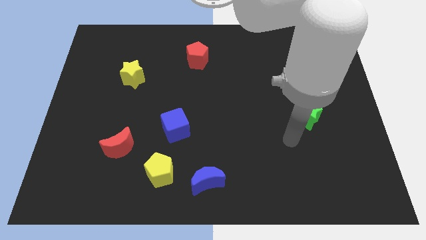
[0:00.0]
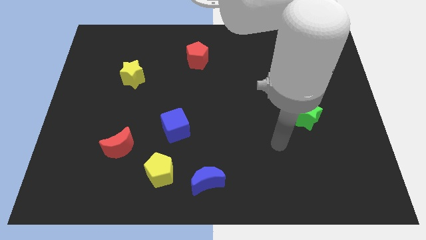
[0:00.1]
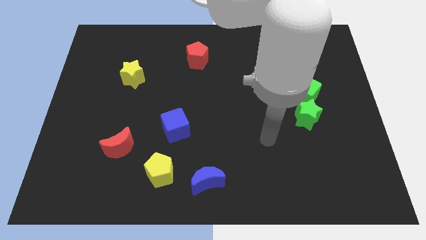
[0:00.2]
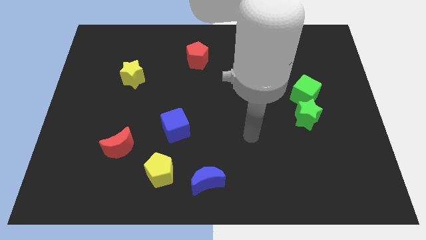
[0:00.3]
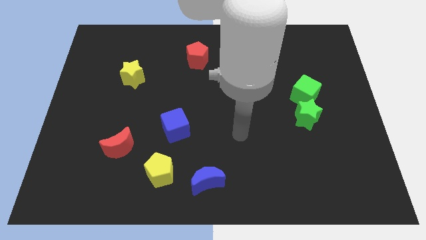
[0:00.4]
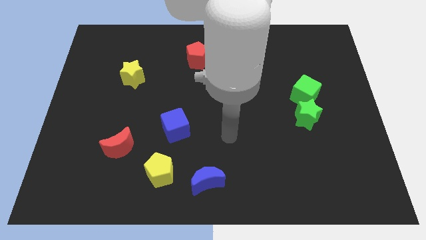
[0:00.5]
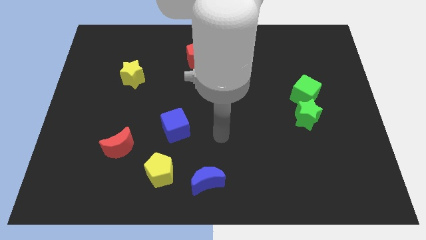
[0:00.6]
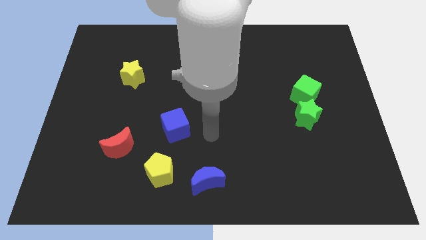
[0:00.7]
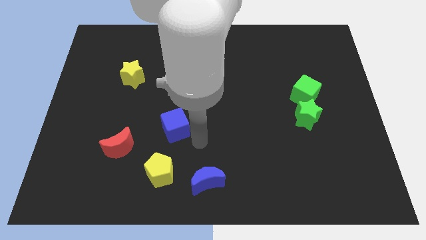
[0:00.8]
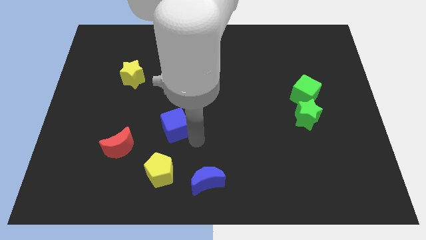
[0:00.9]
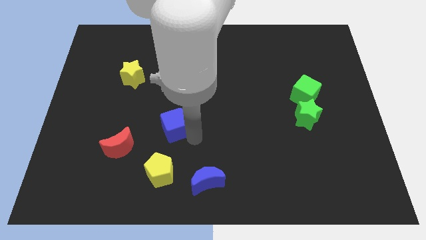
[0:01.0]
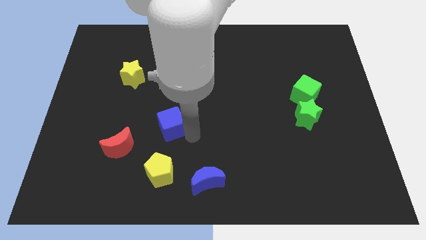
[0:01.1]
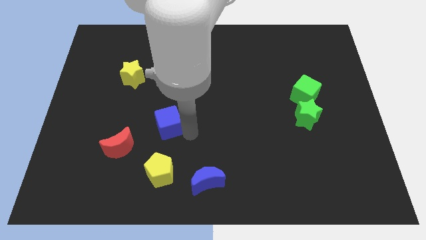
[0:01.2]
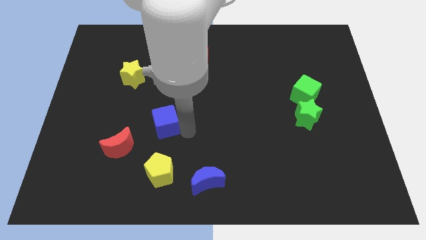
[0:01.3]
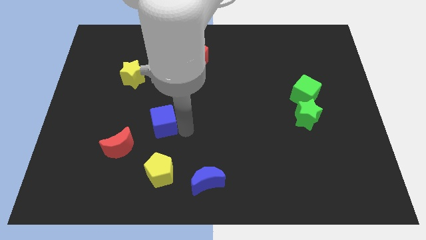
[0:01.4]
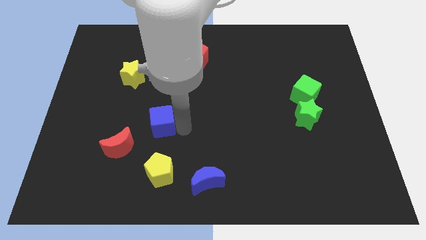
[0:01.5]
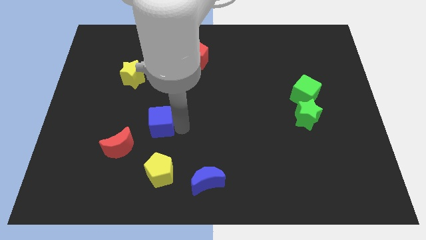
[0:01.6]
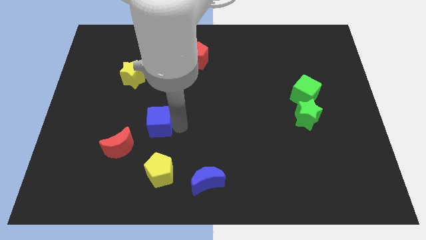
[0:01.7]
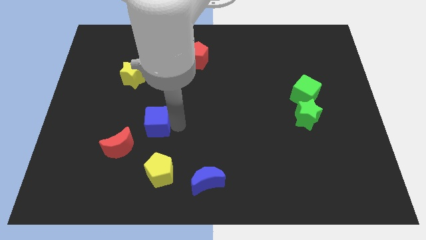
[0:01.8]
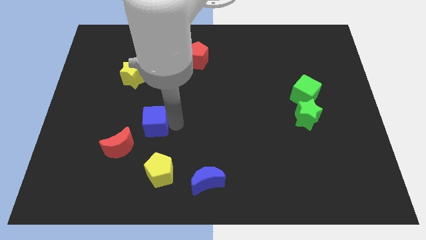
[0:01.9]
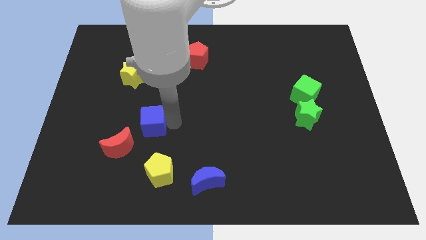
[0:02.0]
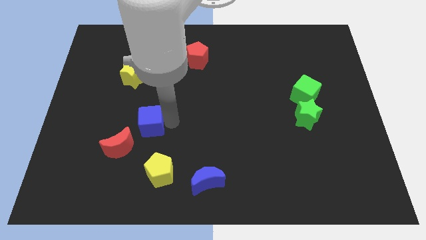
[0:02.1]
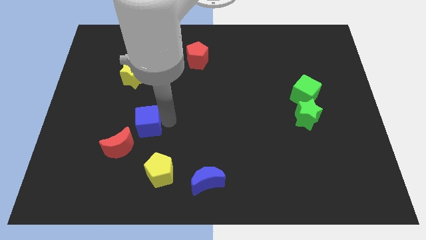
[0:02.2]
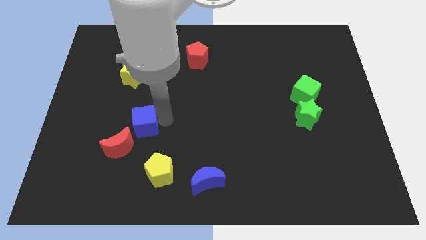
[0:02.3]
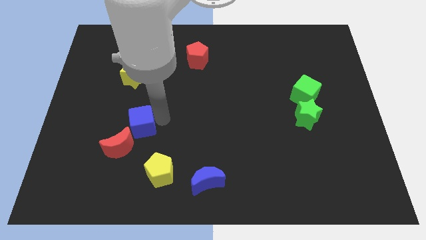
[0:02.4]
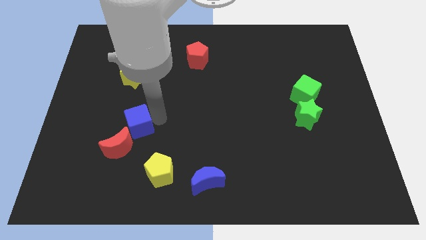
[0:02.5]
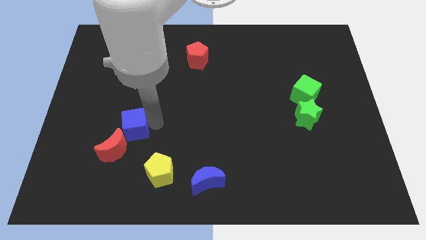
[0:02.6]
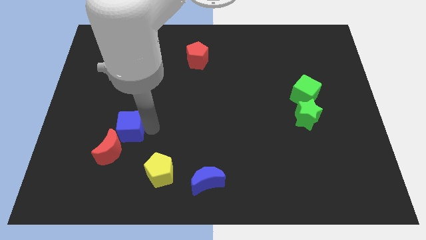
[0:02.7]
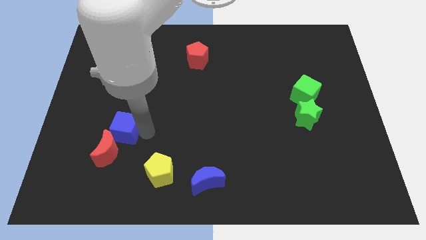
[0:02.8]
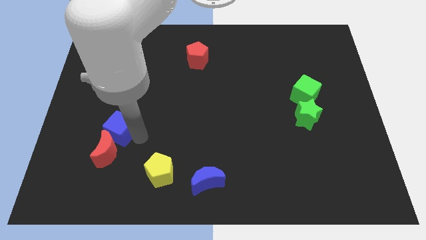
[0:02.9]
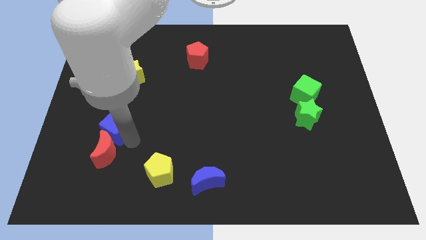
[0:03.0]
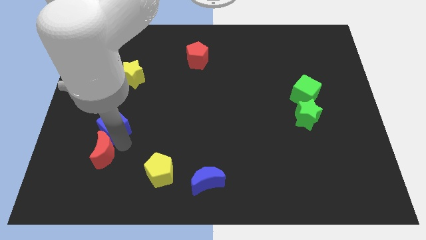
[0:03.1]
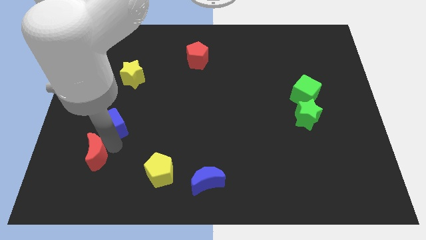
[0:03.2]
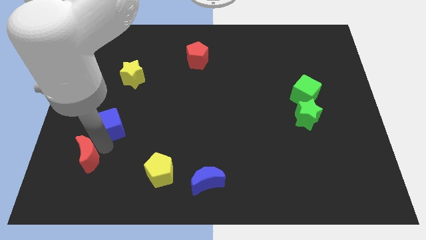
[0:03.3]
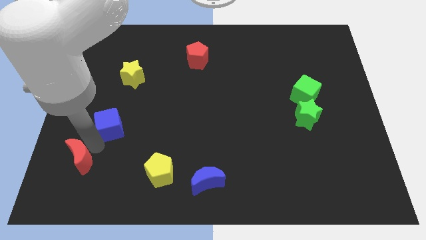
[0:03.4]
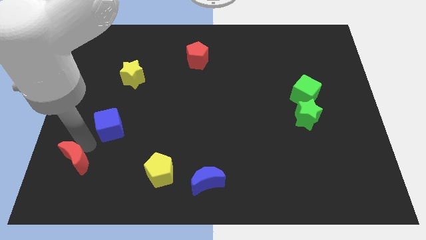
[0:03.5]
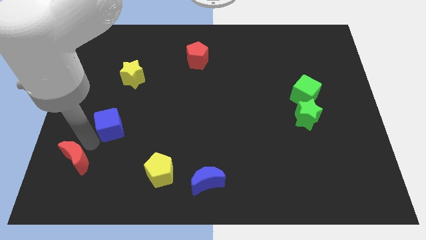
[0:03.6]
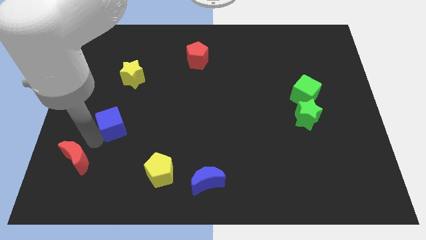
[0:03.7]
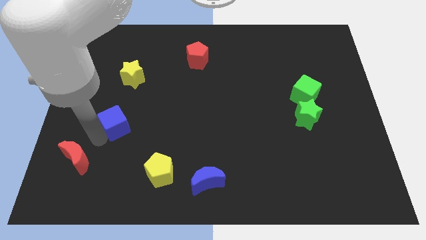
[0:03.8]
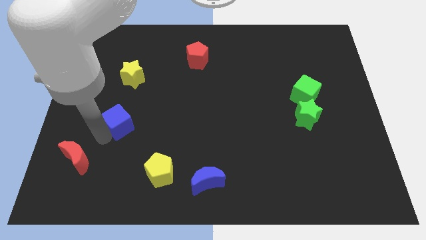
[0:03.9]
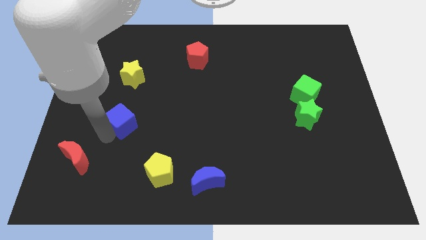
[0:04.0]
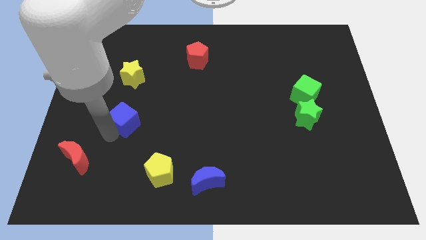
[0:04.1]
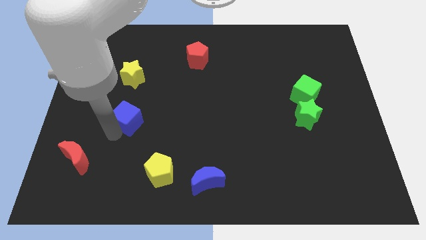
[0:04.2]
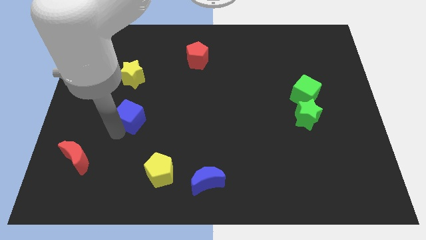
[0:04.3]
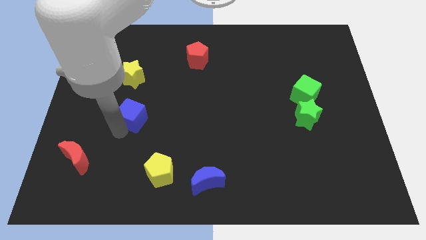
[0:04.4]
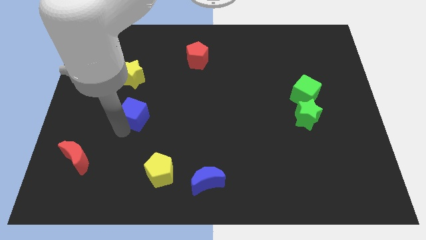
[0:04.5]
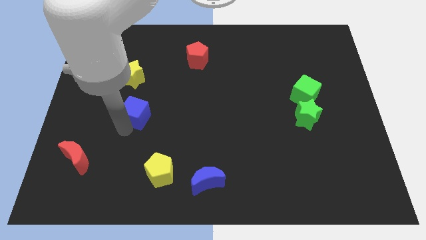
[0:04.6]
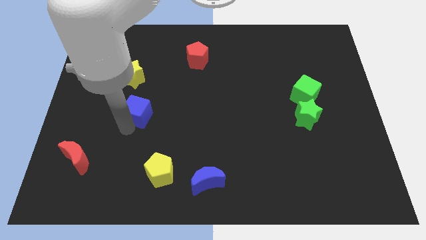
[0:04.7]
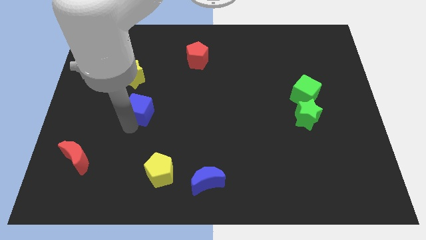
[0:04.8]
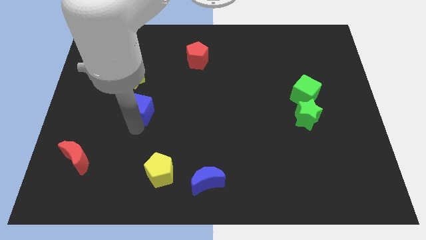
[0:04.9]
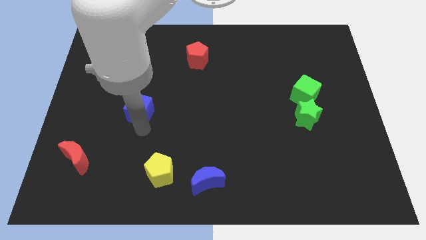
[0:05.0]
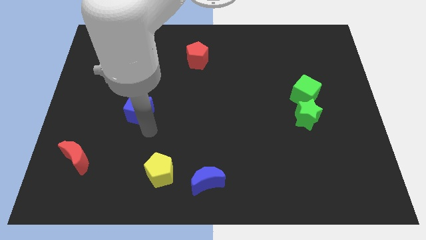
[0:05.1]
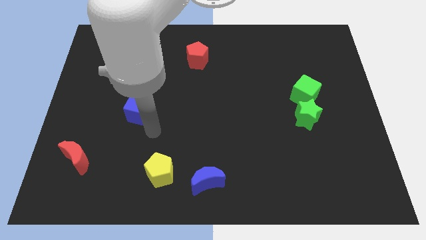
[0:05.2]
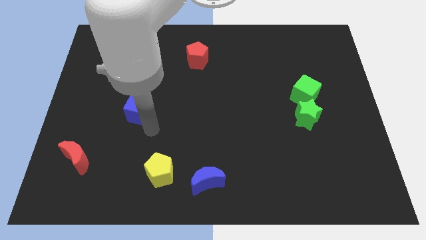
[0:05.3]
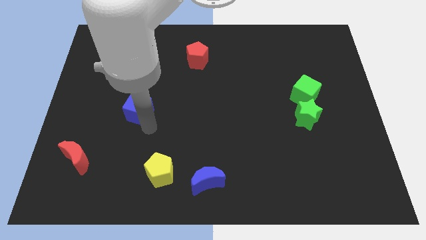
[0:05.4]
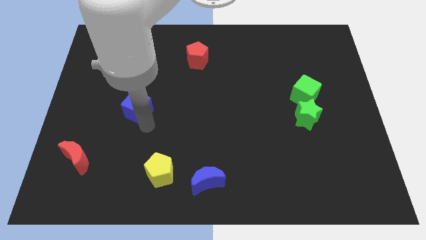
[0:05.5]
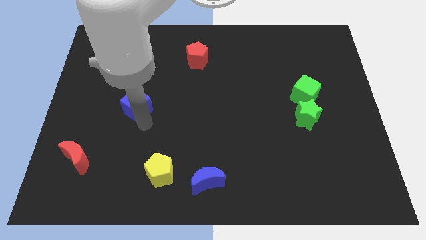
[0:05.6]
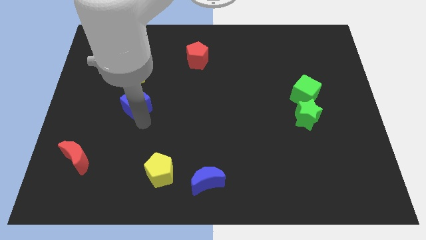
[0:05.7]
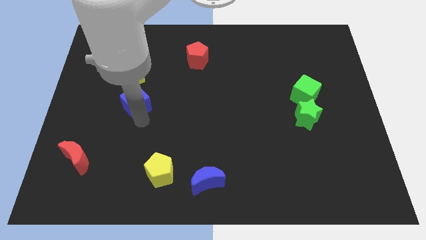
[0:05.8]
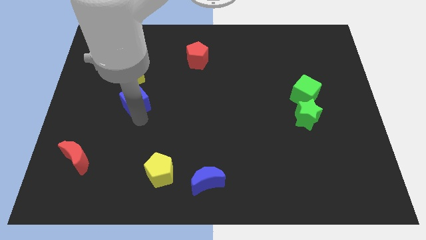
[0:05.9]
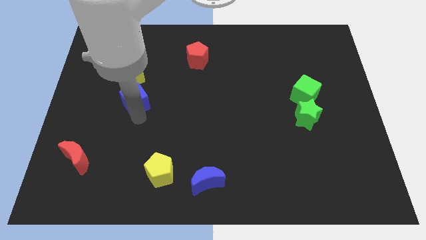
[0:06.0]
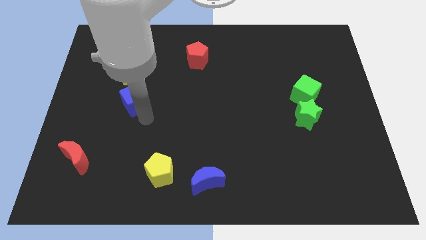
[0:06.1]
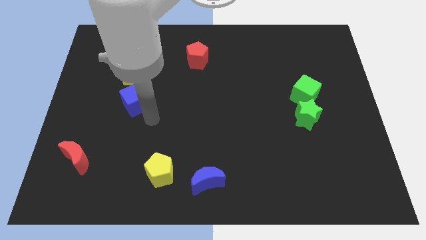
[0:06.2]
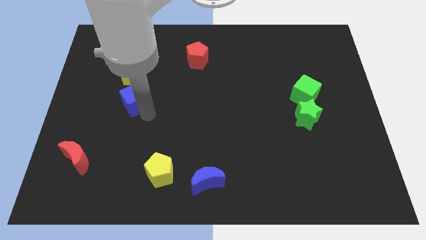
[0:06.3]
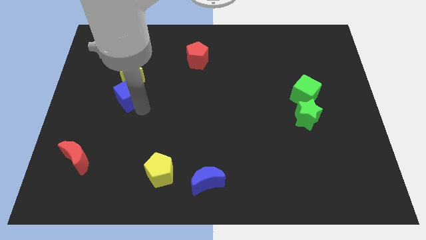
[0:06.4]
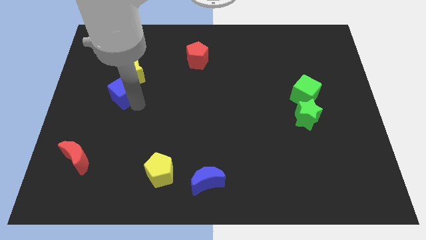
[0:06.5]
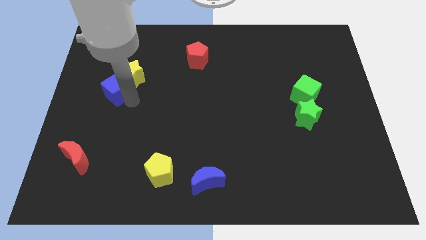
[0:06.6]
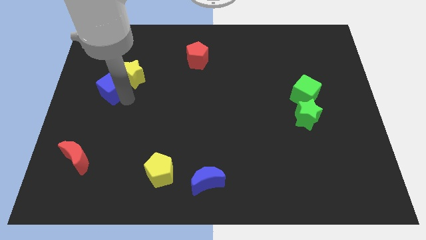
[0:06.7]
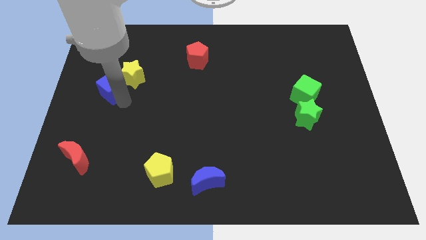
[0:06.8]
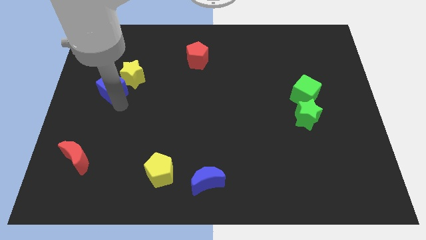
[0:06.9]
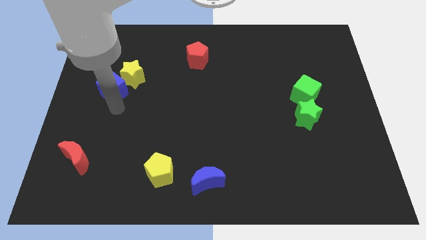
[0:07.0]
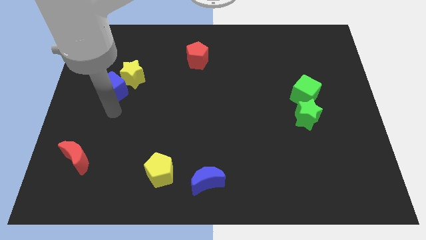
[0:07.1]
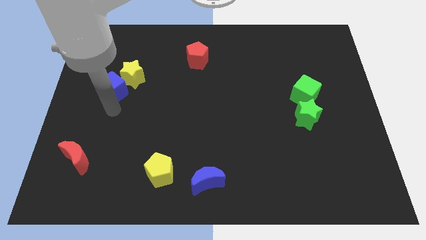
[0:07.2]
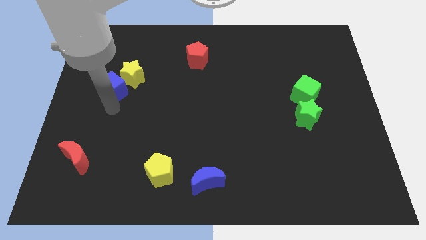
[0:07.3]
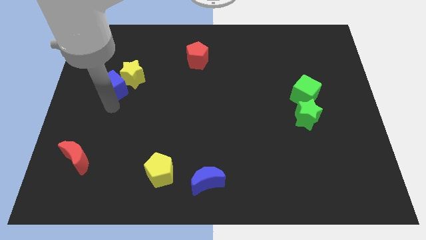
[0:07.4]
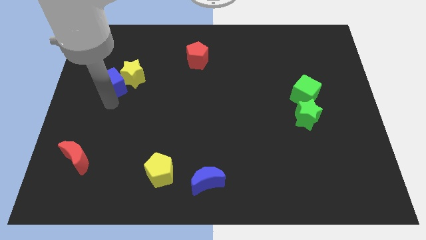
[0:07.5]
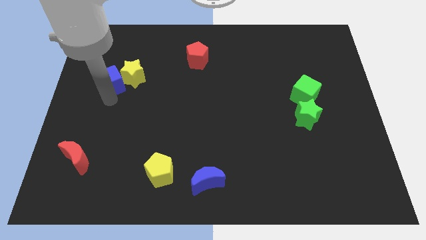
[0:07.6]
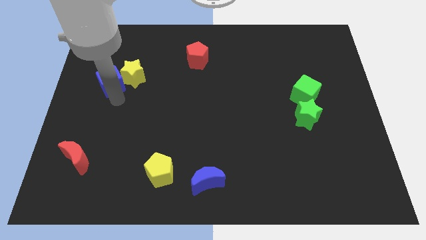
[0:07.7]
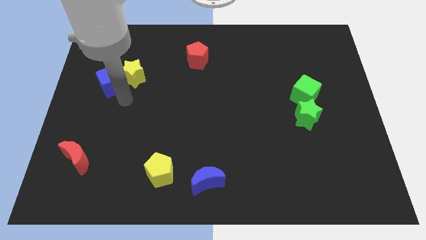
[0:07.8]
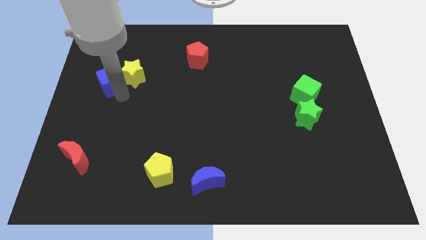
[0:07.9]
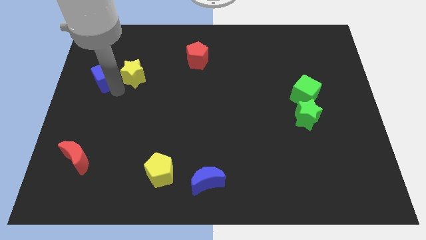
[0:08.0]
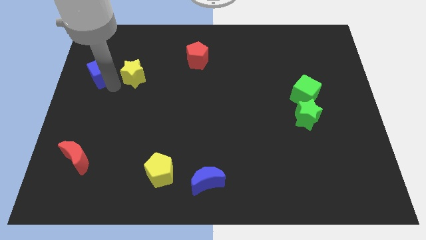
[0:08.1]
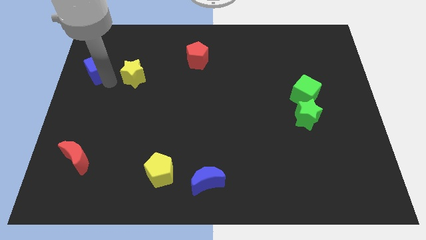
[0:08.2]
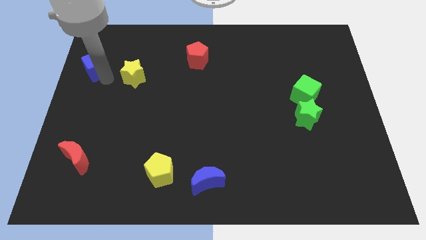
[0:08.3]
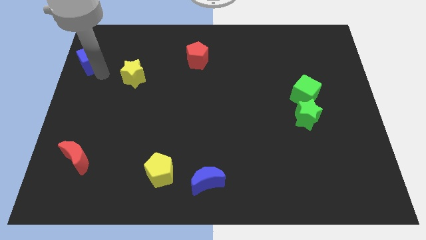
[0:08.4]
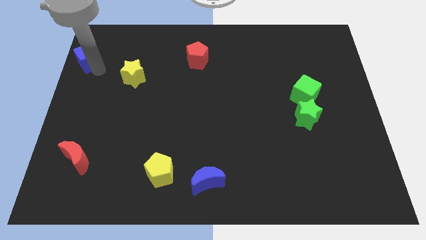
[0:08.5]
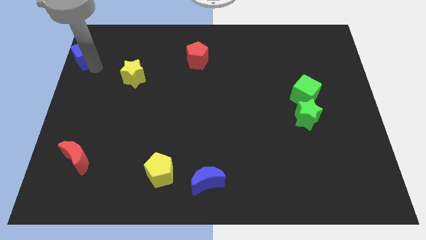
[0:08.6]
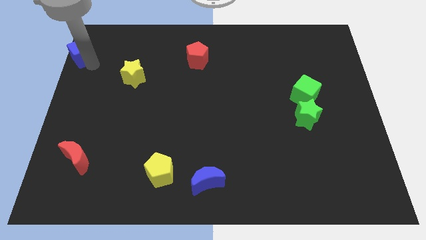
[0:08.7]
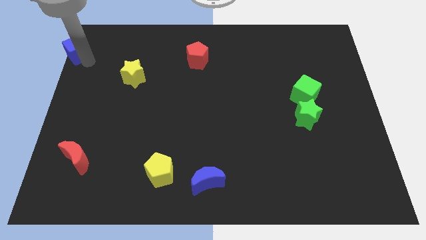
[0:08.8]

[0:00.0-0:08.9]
slide the blue cube to the top left
